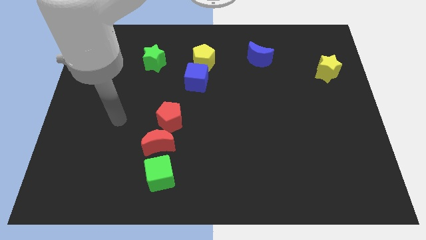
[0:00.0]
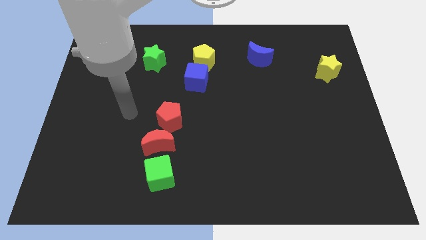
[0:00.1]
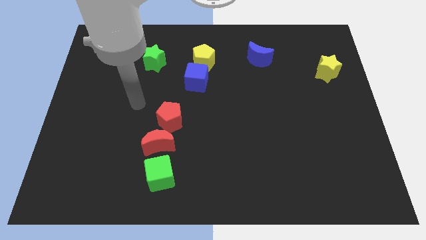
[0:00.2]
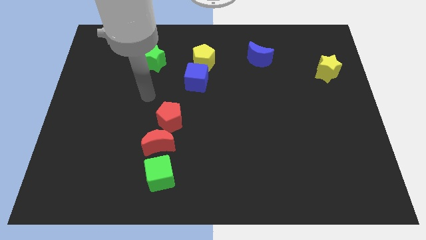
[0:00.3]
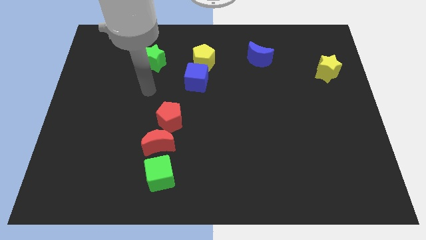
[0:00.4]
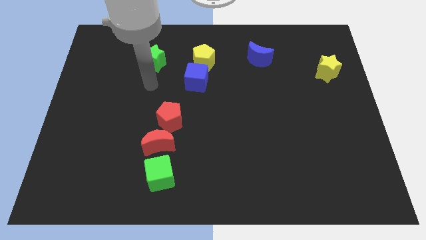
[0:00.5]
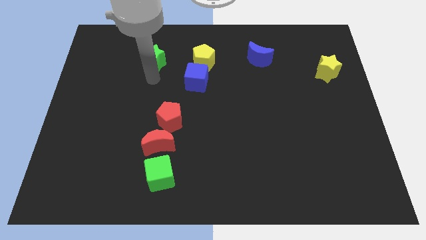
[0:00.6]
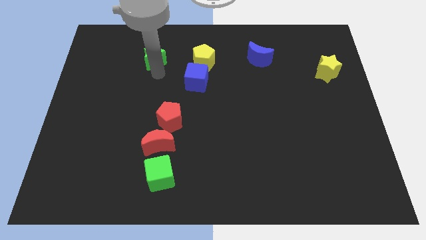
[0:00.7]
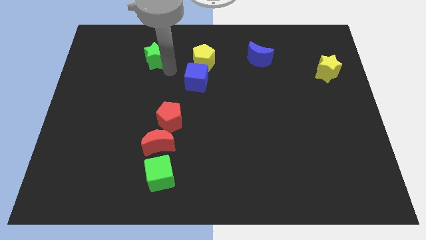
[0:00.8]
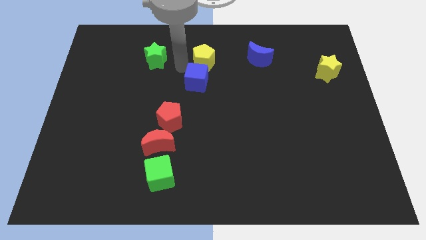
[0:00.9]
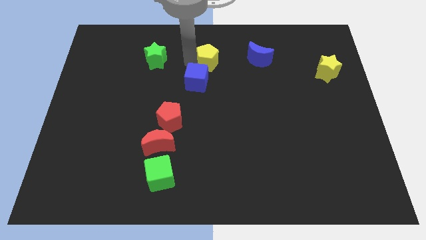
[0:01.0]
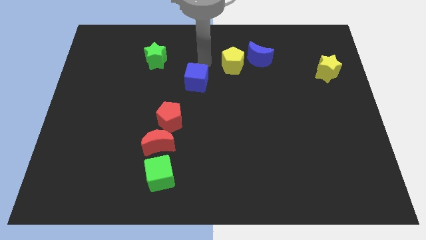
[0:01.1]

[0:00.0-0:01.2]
separate the blue cube from the yellow pentagon

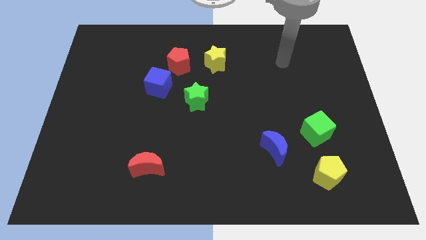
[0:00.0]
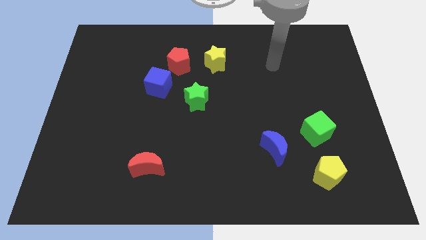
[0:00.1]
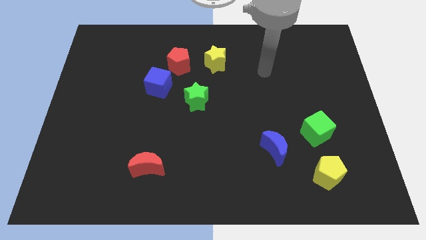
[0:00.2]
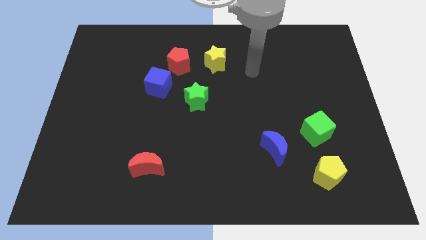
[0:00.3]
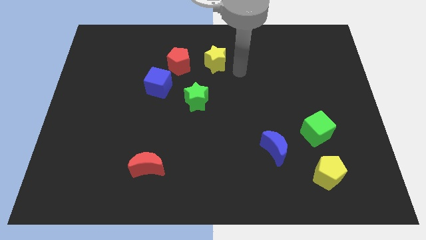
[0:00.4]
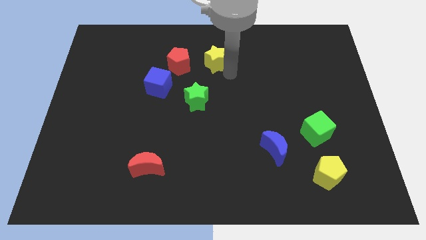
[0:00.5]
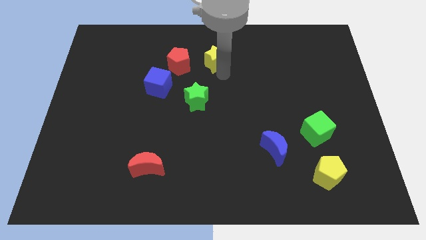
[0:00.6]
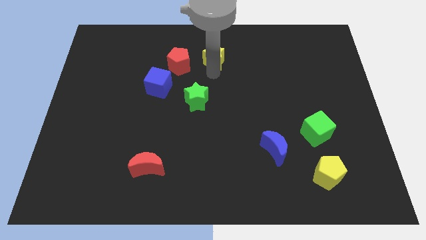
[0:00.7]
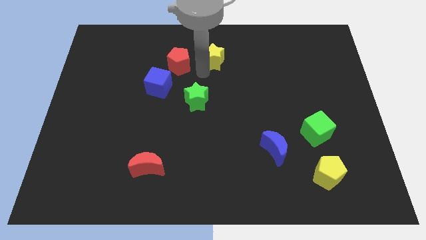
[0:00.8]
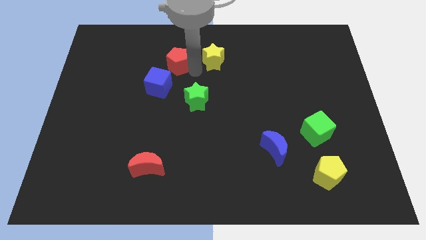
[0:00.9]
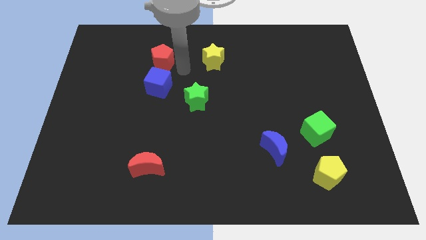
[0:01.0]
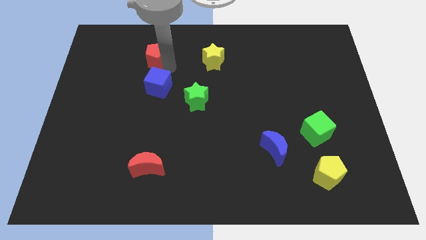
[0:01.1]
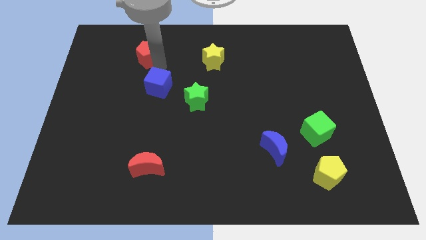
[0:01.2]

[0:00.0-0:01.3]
move the blue cube away from the red pentagon

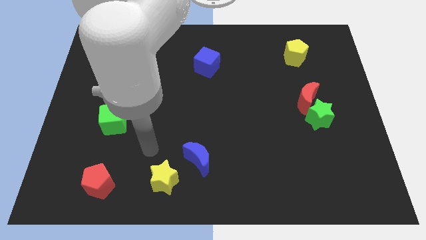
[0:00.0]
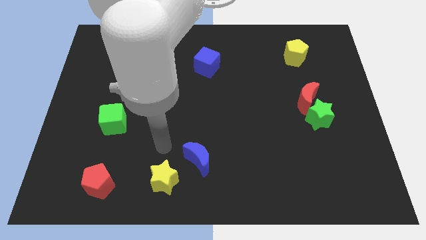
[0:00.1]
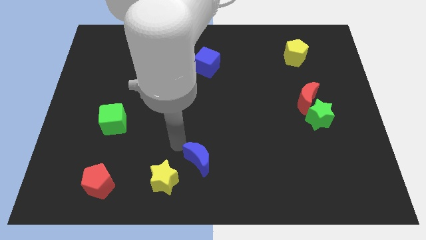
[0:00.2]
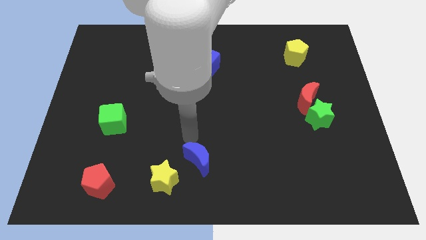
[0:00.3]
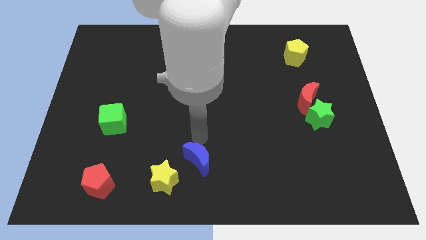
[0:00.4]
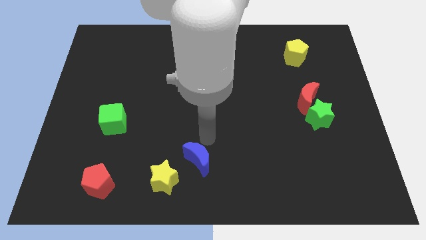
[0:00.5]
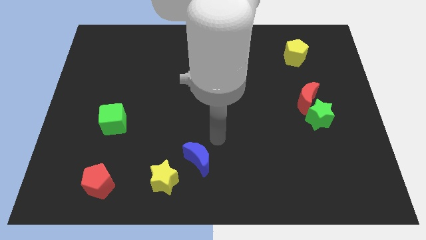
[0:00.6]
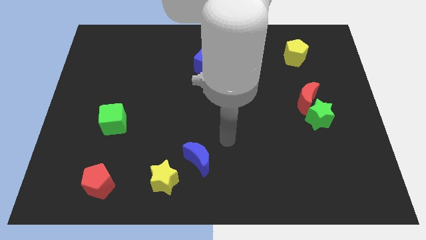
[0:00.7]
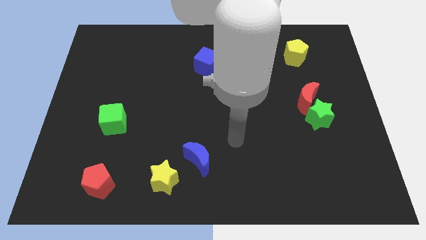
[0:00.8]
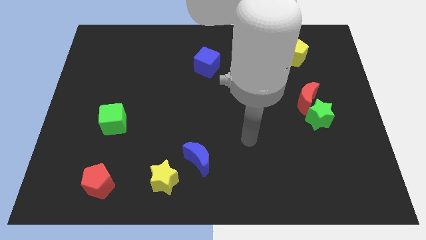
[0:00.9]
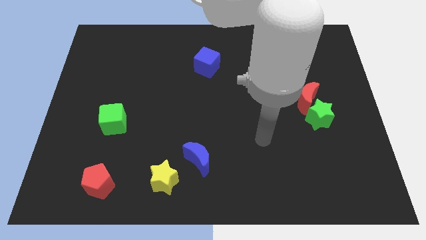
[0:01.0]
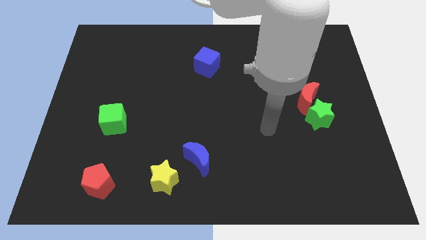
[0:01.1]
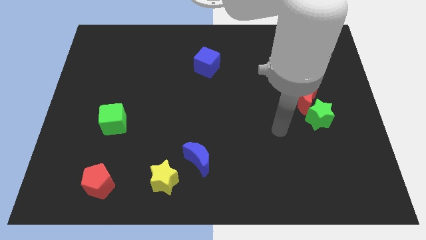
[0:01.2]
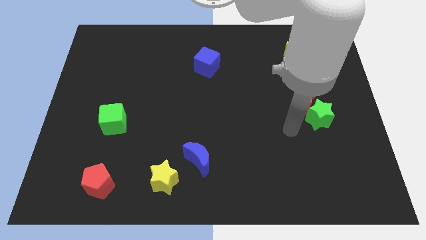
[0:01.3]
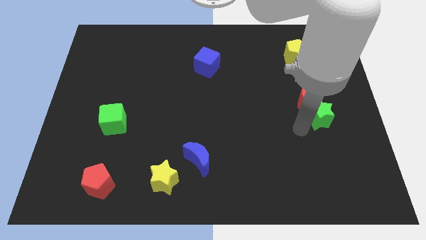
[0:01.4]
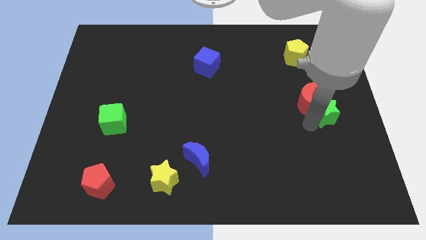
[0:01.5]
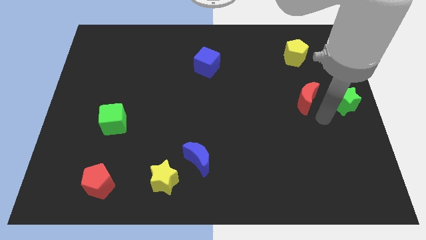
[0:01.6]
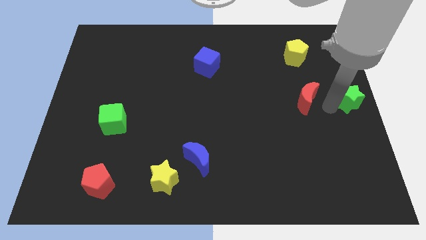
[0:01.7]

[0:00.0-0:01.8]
pull the red moon apart from the green star

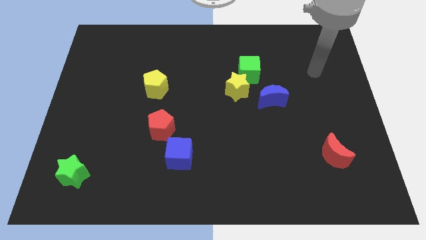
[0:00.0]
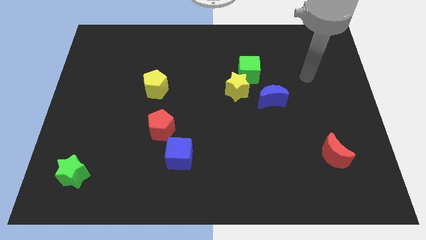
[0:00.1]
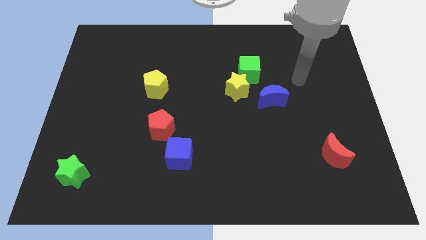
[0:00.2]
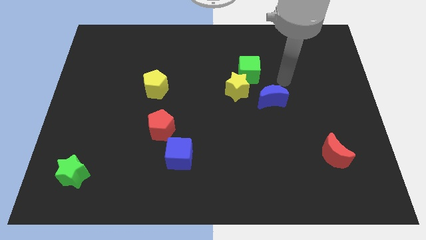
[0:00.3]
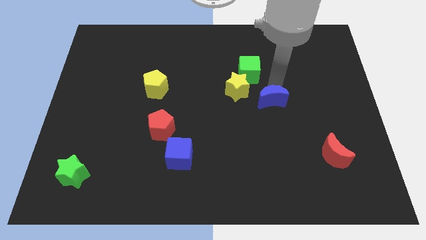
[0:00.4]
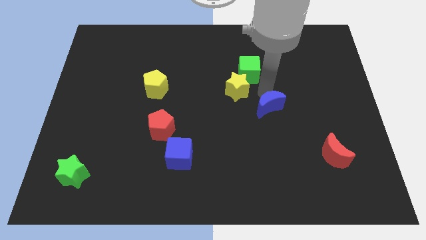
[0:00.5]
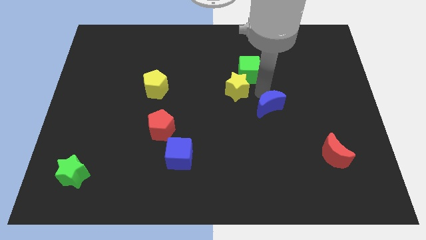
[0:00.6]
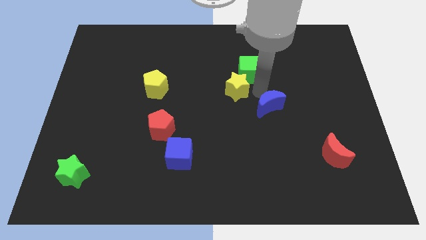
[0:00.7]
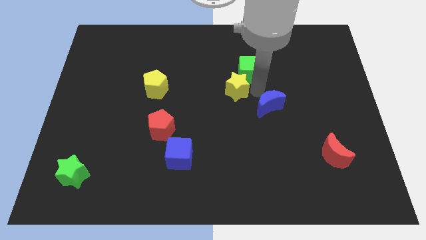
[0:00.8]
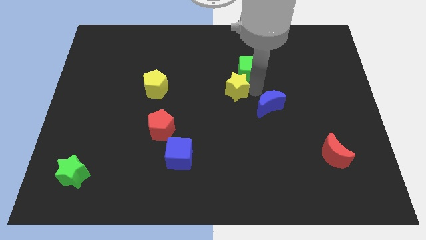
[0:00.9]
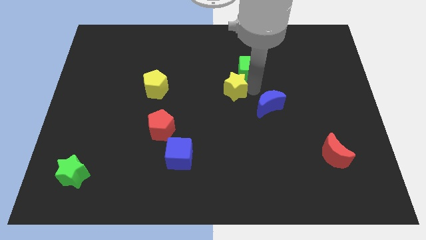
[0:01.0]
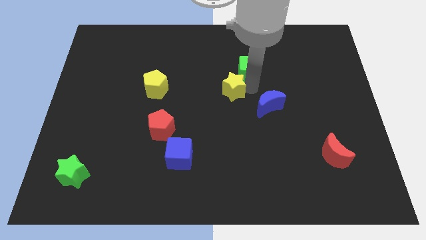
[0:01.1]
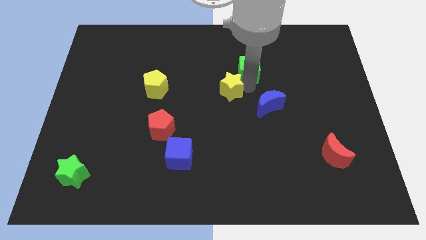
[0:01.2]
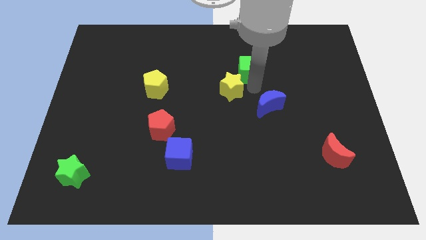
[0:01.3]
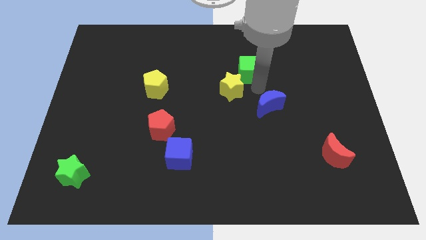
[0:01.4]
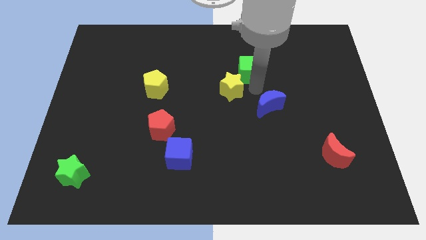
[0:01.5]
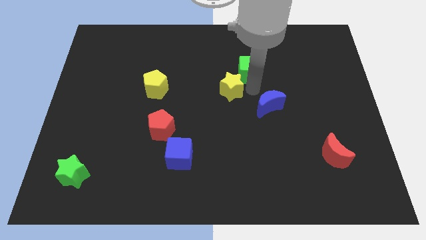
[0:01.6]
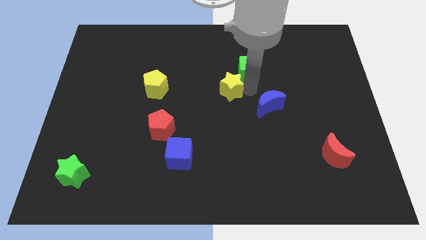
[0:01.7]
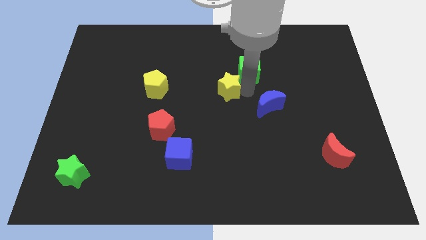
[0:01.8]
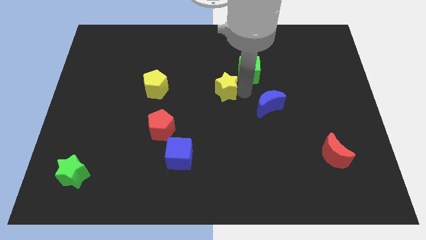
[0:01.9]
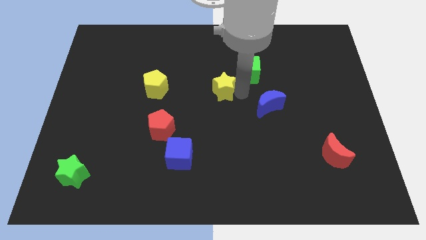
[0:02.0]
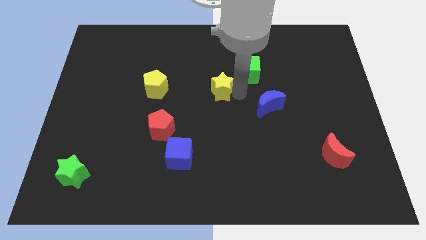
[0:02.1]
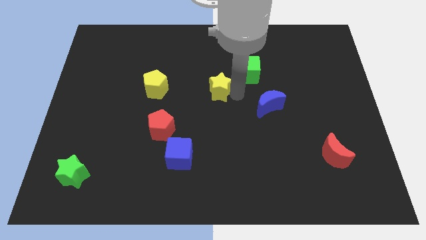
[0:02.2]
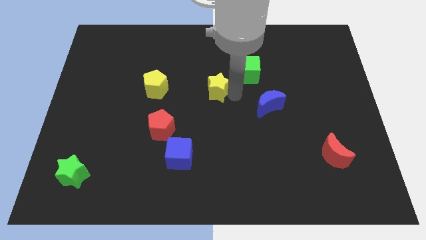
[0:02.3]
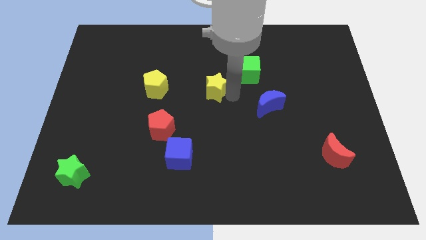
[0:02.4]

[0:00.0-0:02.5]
separate the yellow star from the green cube and blue moon

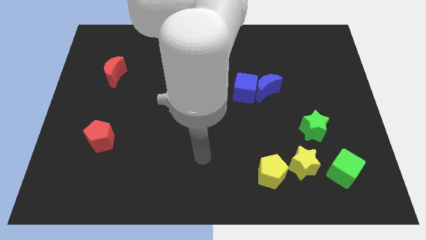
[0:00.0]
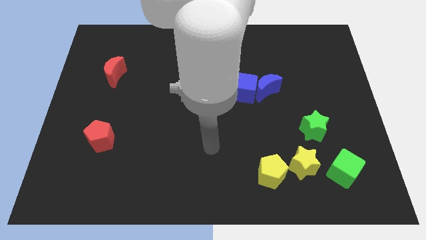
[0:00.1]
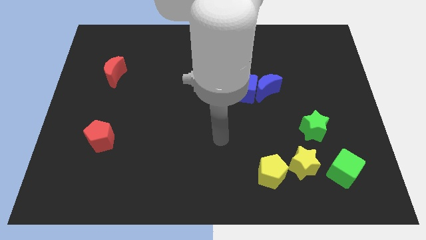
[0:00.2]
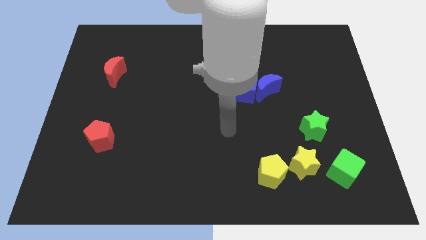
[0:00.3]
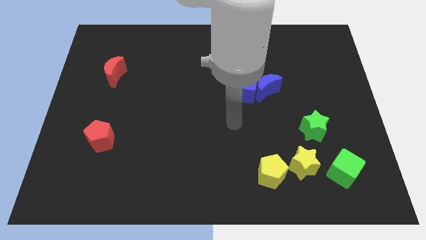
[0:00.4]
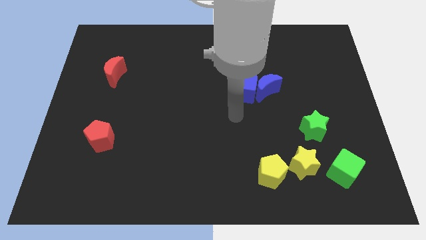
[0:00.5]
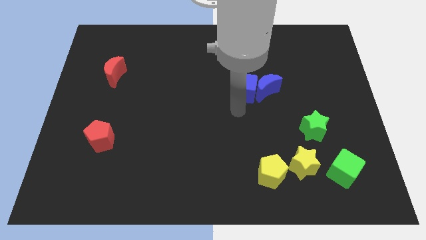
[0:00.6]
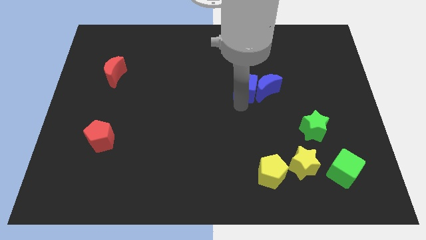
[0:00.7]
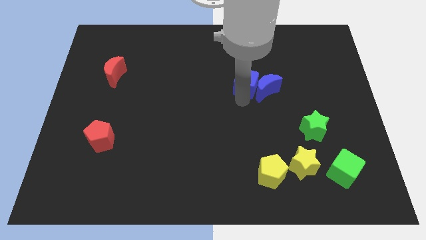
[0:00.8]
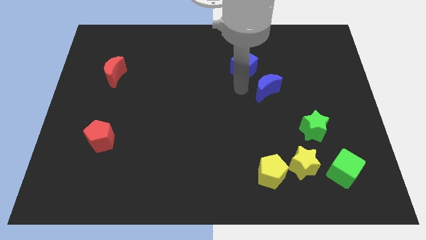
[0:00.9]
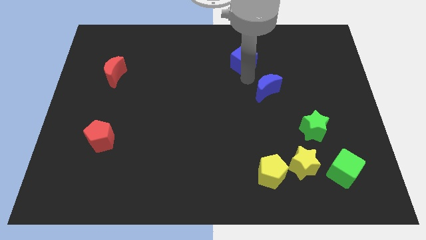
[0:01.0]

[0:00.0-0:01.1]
pull the blue moon apart from the blue cube

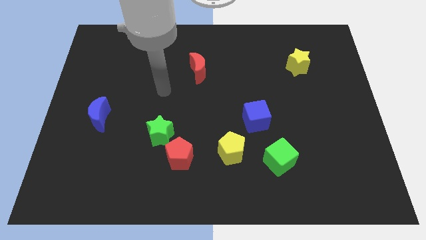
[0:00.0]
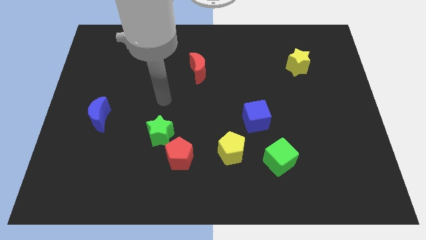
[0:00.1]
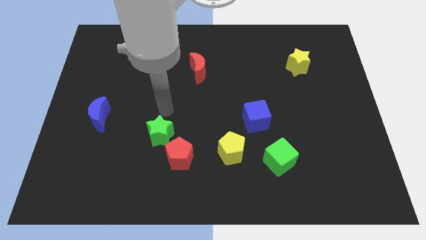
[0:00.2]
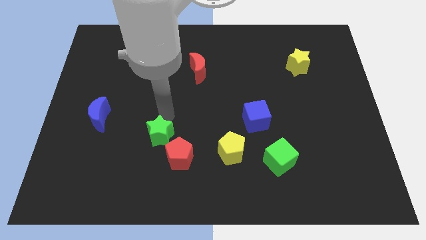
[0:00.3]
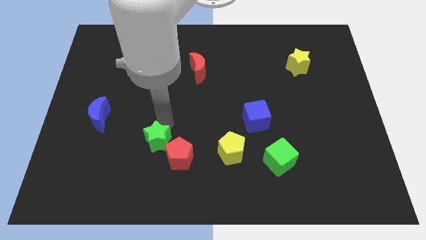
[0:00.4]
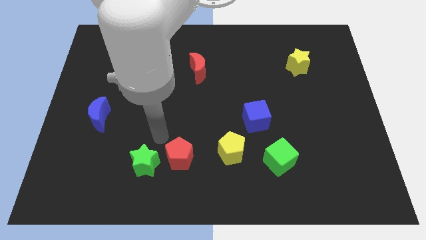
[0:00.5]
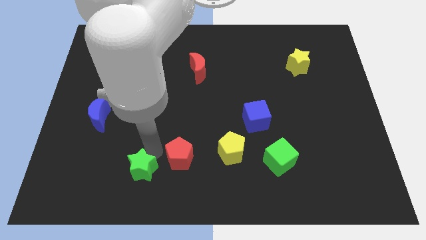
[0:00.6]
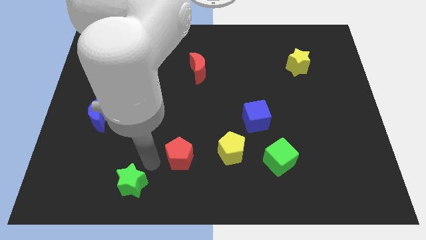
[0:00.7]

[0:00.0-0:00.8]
pull the red pentagon apart from the green star

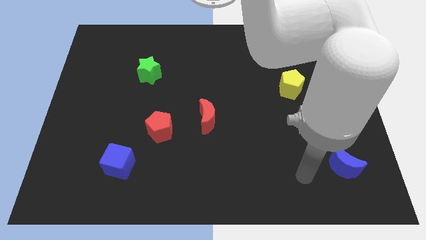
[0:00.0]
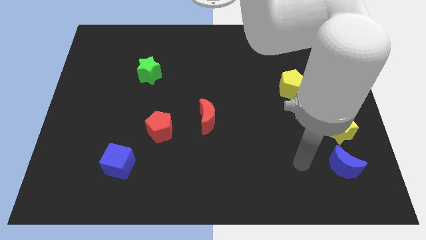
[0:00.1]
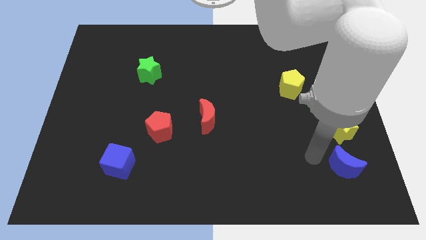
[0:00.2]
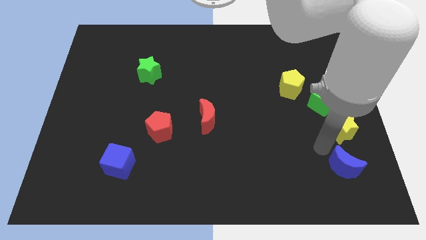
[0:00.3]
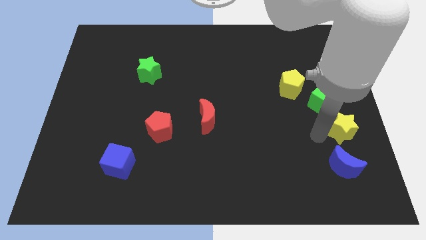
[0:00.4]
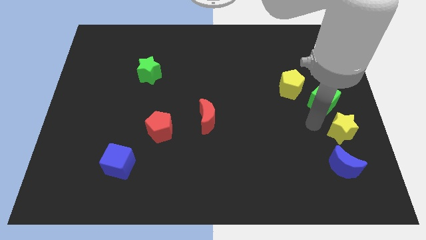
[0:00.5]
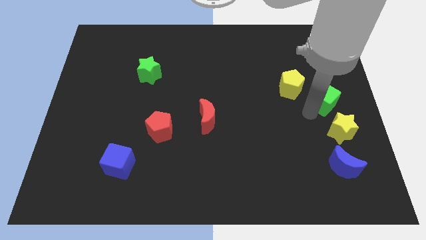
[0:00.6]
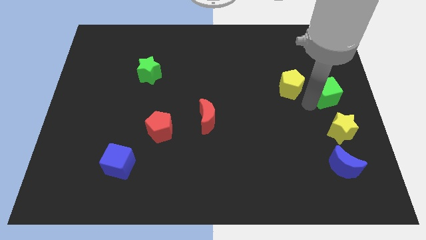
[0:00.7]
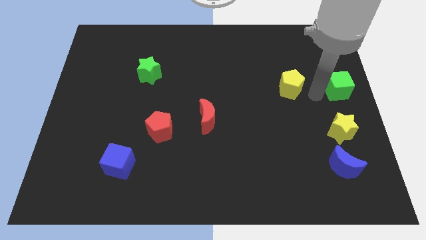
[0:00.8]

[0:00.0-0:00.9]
pull the yellow pentagon apart from the green cube
